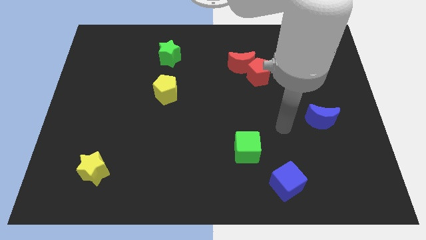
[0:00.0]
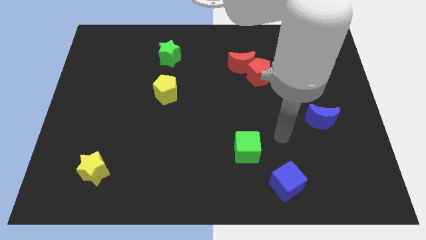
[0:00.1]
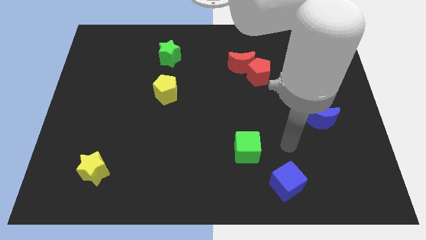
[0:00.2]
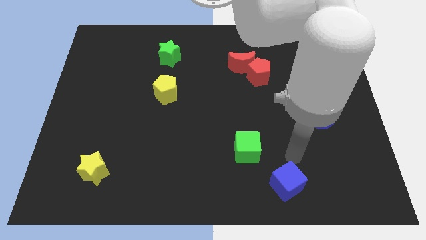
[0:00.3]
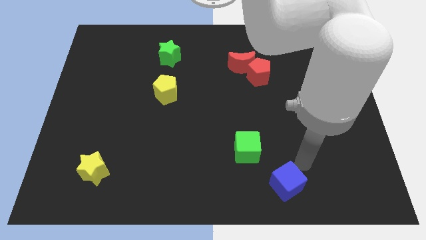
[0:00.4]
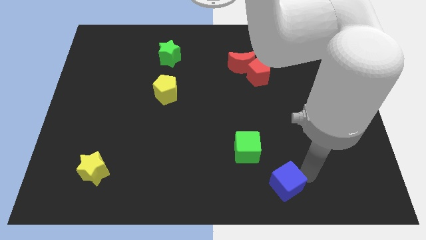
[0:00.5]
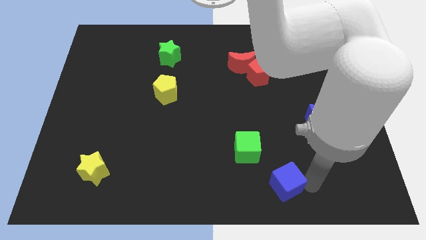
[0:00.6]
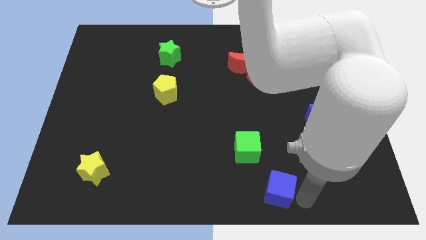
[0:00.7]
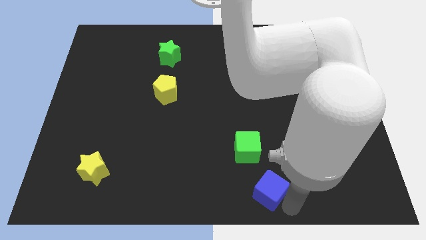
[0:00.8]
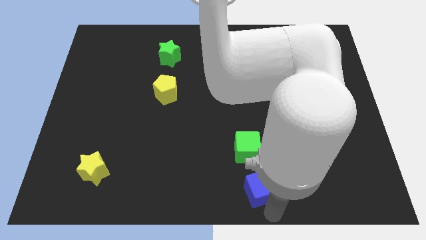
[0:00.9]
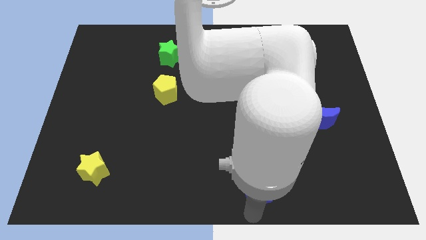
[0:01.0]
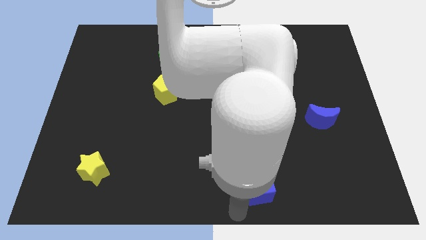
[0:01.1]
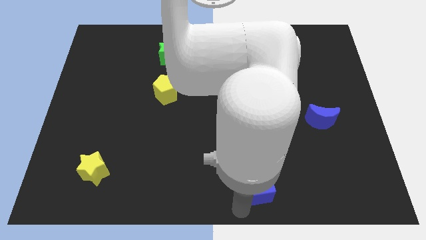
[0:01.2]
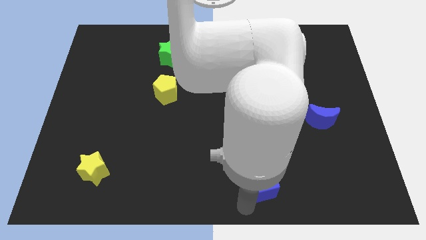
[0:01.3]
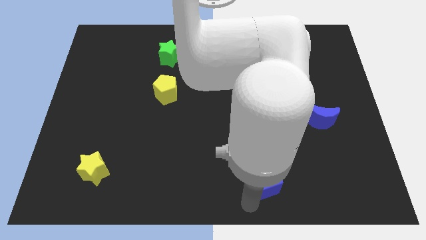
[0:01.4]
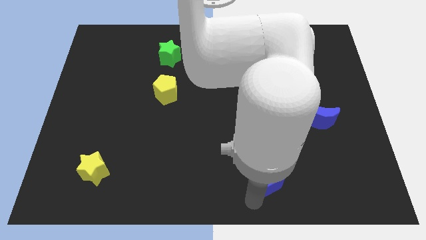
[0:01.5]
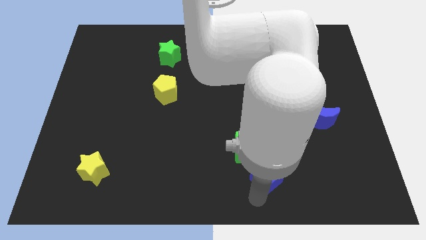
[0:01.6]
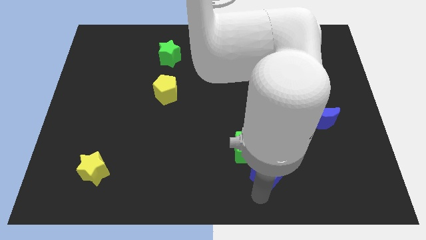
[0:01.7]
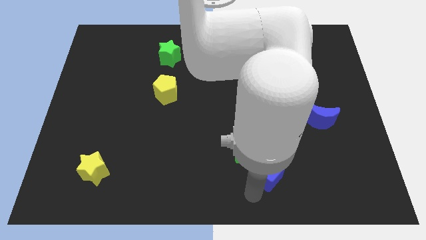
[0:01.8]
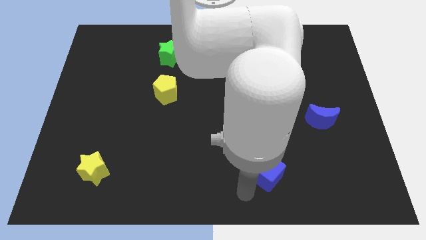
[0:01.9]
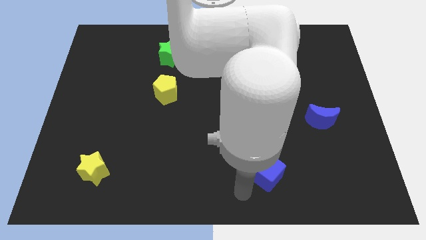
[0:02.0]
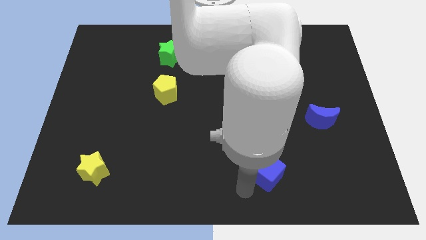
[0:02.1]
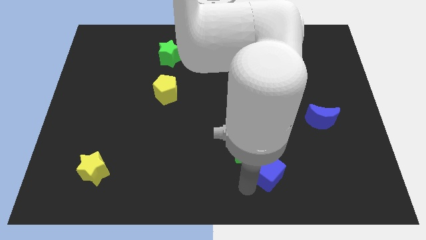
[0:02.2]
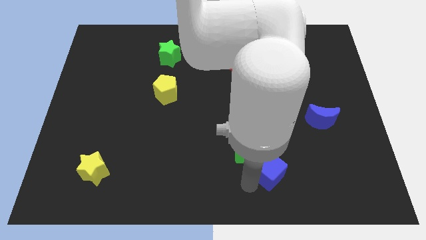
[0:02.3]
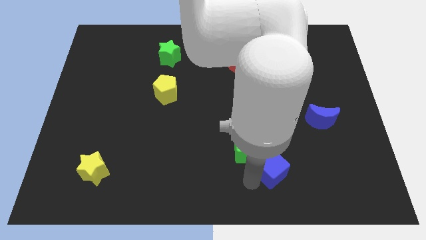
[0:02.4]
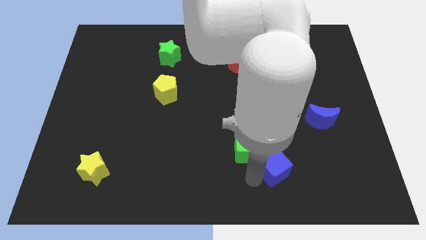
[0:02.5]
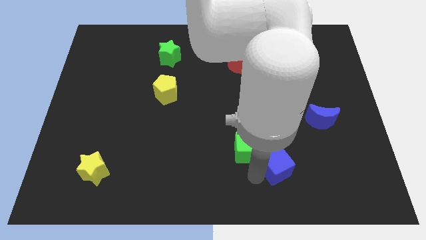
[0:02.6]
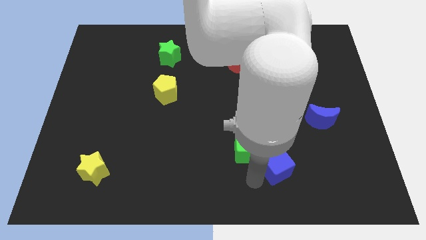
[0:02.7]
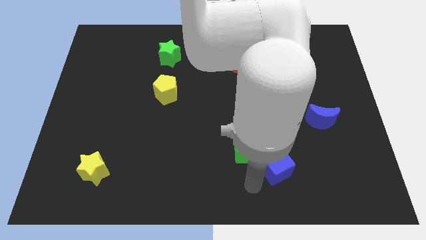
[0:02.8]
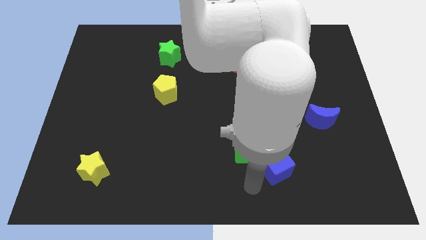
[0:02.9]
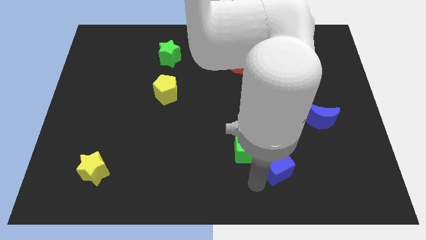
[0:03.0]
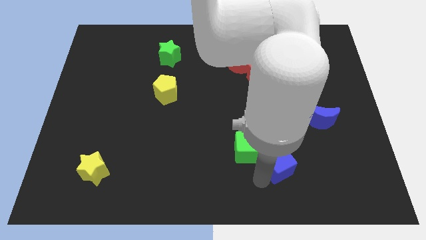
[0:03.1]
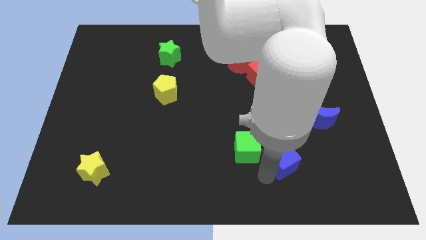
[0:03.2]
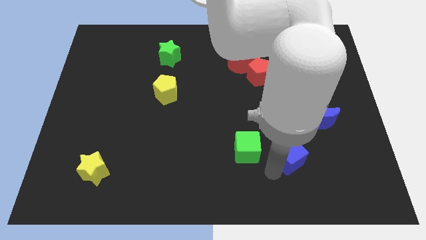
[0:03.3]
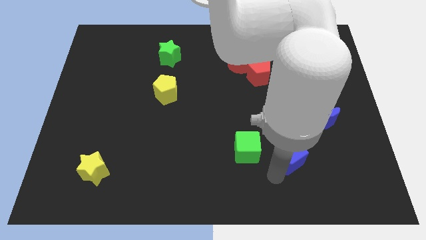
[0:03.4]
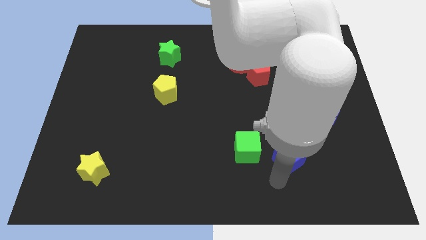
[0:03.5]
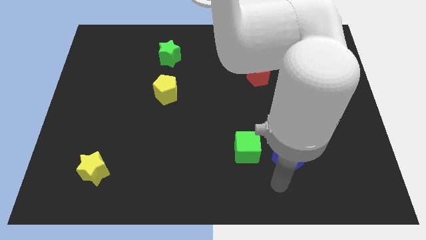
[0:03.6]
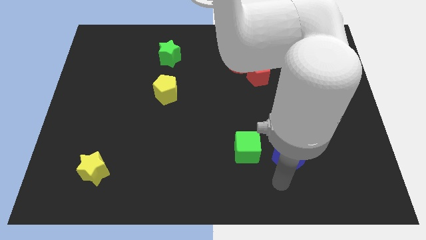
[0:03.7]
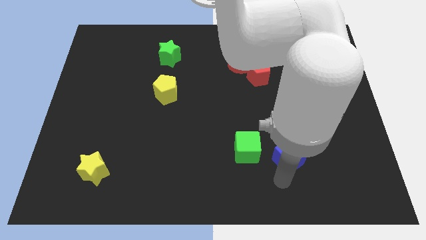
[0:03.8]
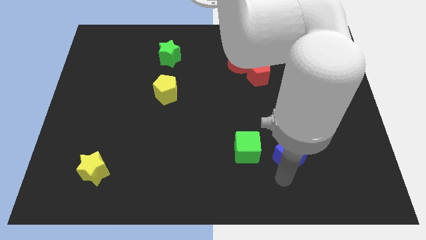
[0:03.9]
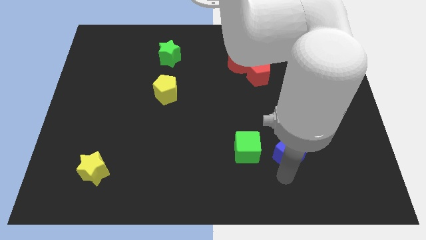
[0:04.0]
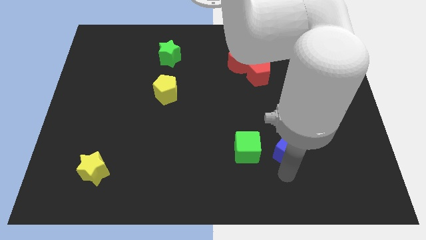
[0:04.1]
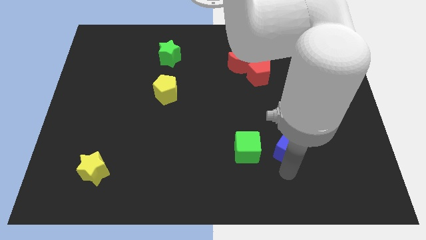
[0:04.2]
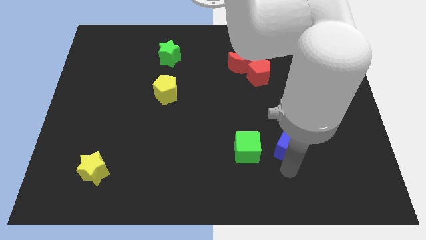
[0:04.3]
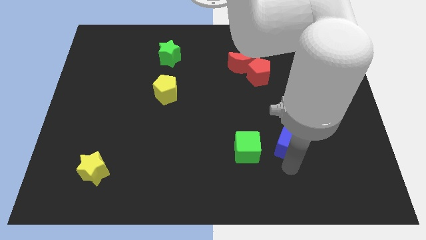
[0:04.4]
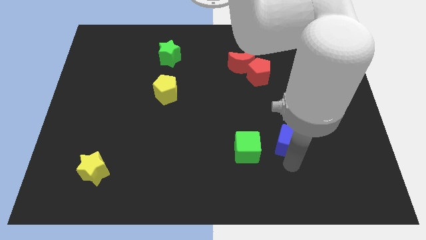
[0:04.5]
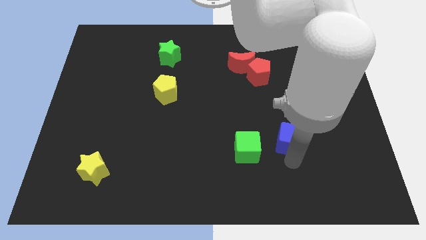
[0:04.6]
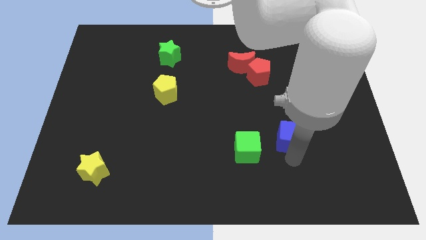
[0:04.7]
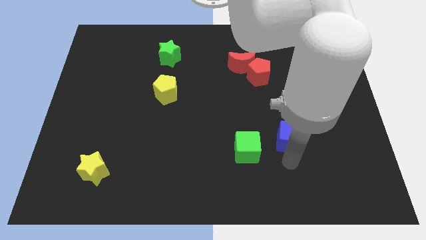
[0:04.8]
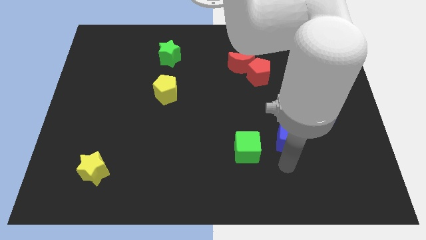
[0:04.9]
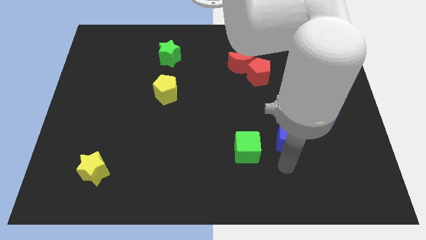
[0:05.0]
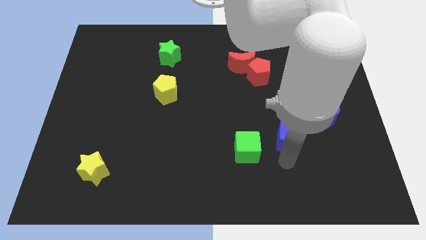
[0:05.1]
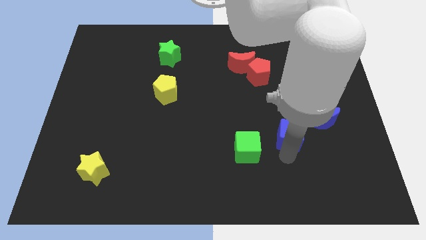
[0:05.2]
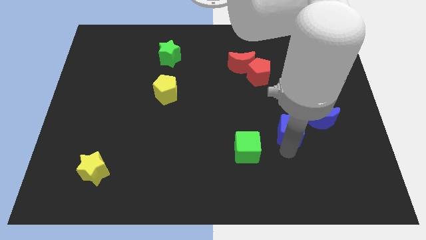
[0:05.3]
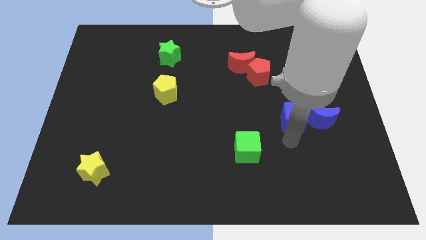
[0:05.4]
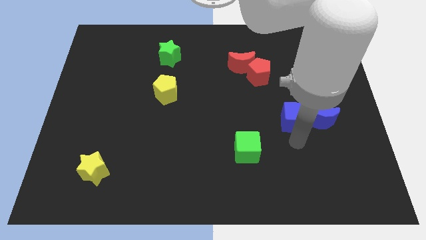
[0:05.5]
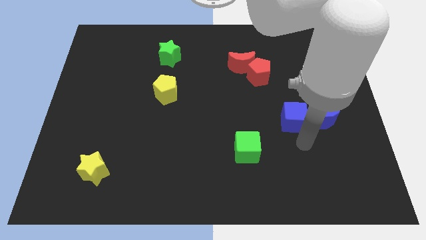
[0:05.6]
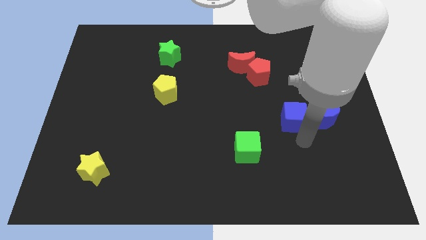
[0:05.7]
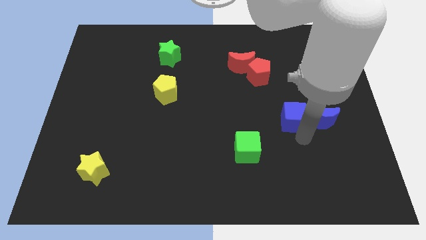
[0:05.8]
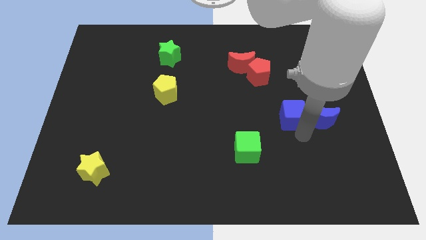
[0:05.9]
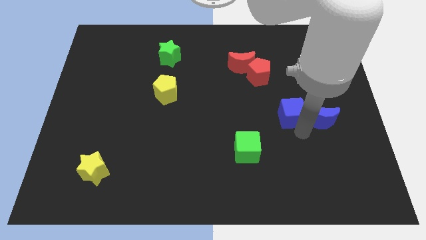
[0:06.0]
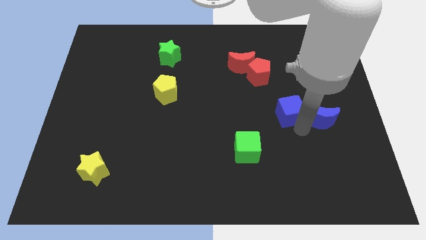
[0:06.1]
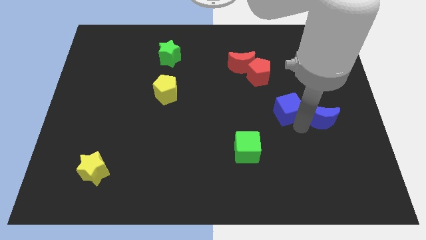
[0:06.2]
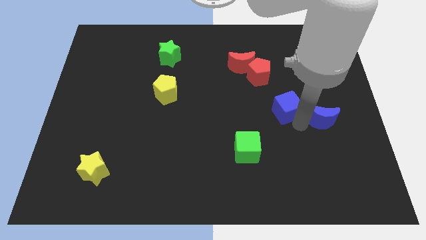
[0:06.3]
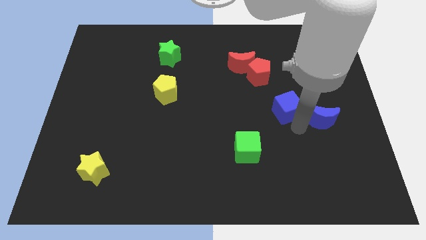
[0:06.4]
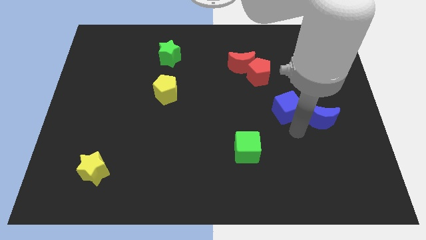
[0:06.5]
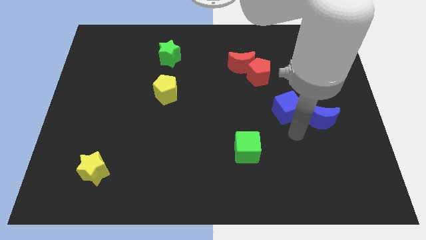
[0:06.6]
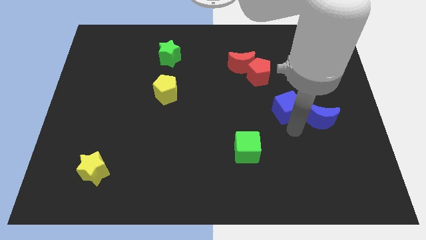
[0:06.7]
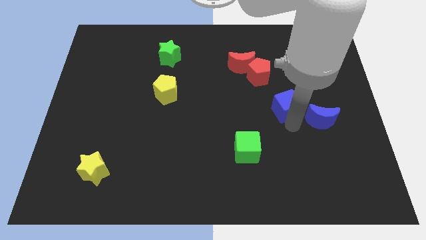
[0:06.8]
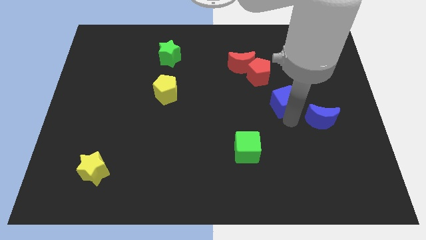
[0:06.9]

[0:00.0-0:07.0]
push the blue cube upwards

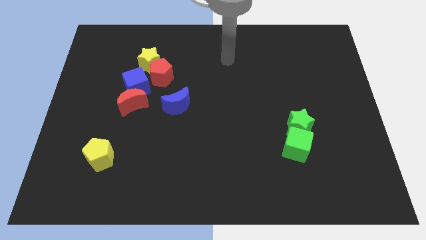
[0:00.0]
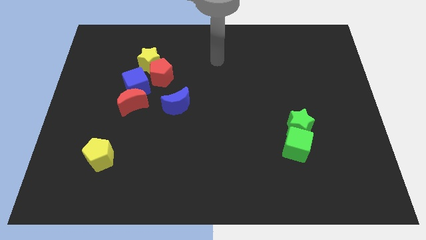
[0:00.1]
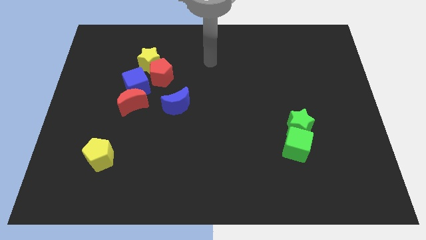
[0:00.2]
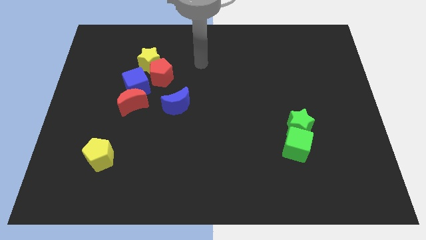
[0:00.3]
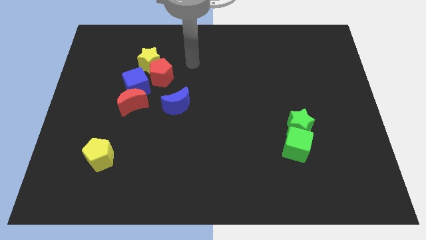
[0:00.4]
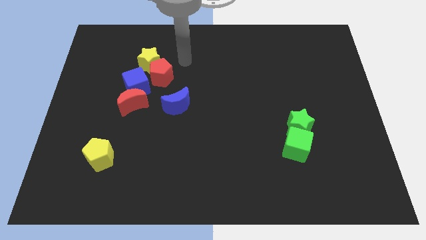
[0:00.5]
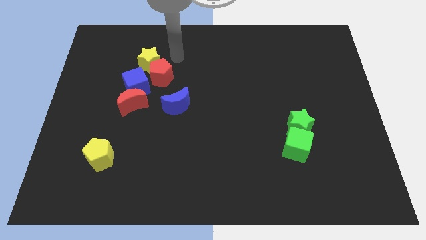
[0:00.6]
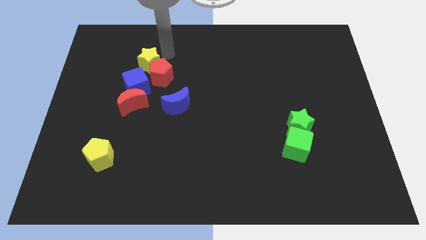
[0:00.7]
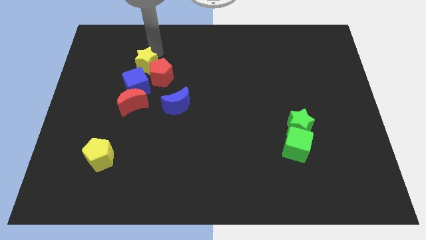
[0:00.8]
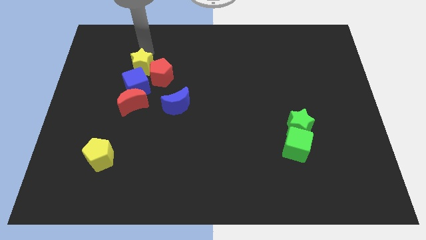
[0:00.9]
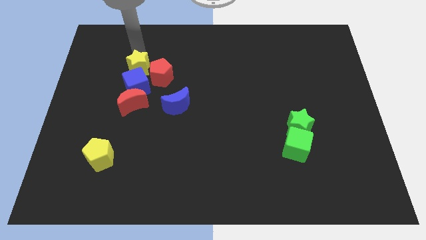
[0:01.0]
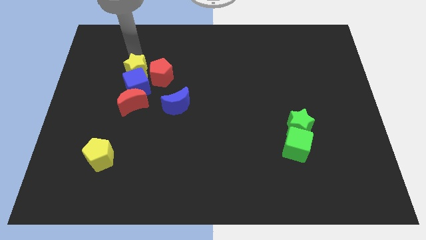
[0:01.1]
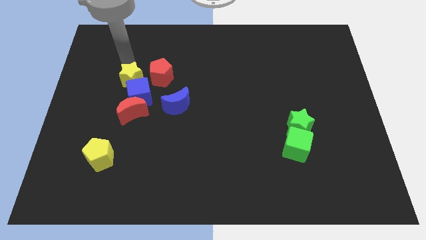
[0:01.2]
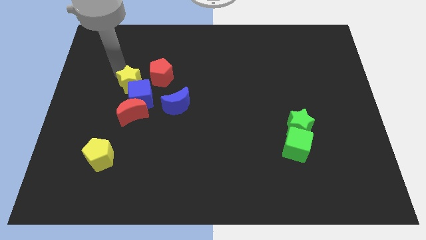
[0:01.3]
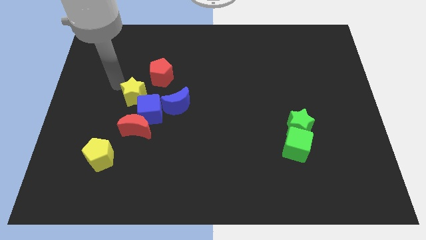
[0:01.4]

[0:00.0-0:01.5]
slightly slide the blue cube downwards and right diagonally
